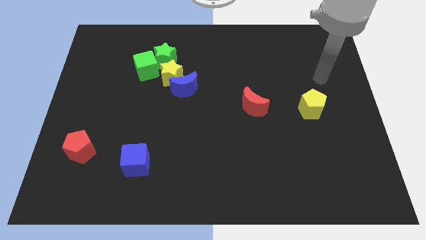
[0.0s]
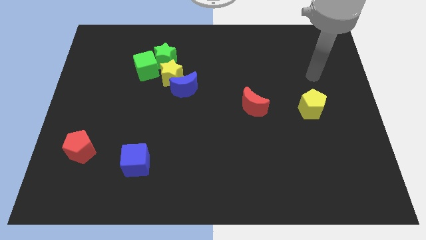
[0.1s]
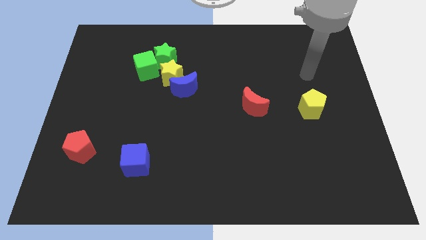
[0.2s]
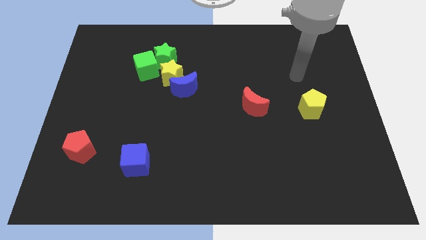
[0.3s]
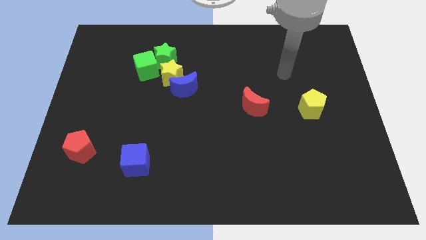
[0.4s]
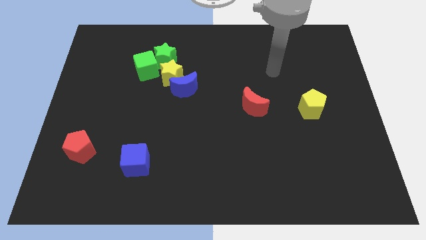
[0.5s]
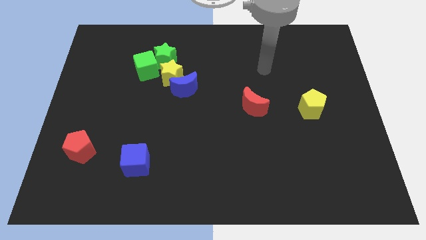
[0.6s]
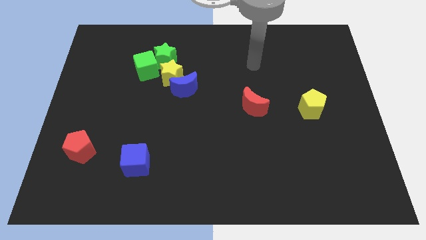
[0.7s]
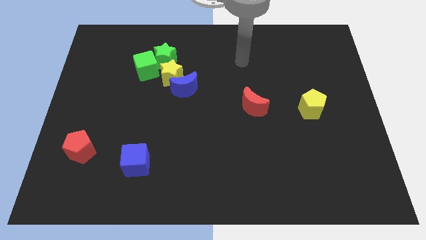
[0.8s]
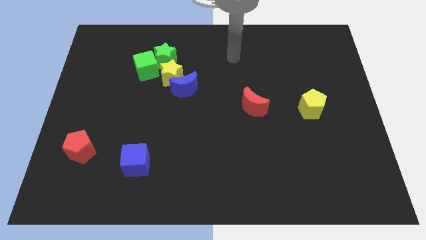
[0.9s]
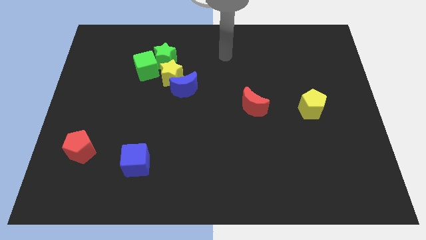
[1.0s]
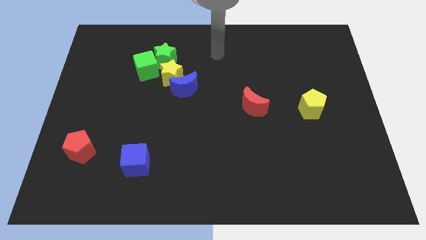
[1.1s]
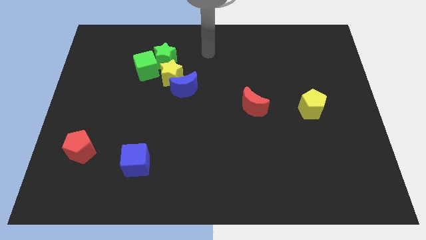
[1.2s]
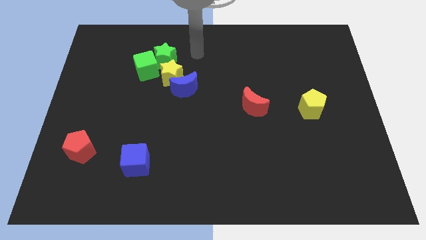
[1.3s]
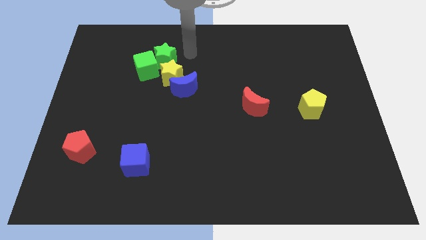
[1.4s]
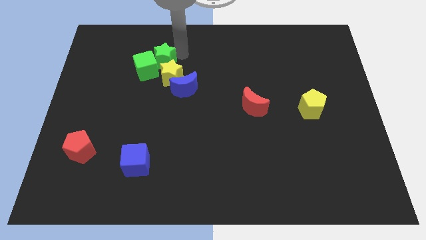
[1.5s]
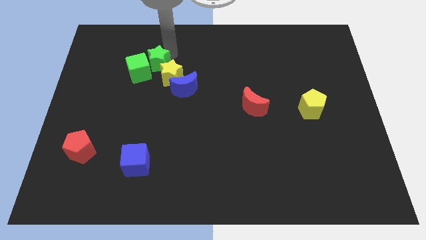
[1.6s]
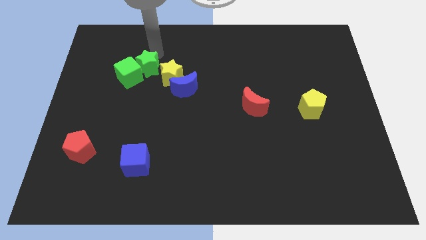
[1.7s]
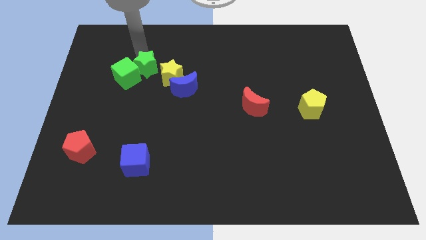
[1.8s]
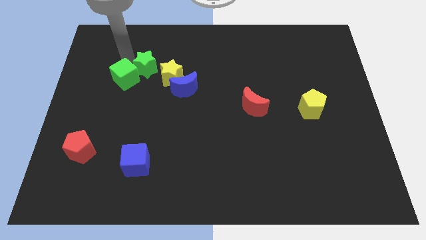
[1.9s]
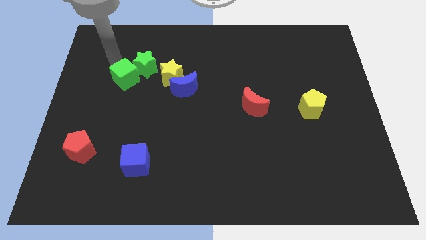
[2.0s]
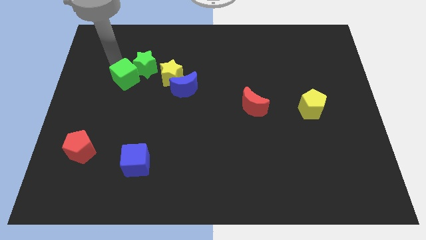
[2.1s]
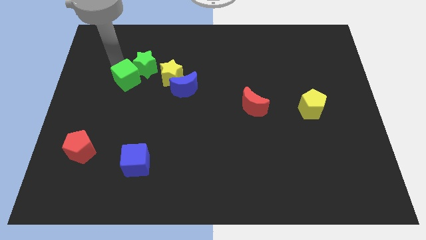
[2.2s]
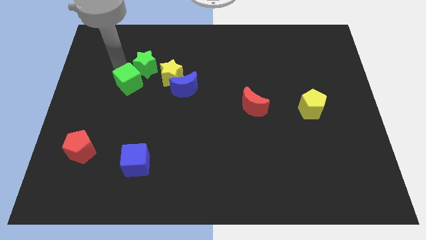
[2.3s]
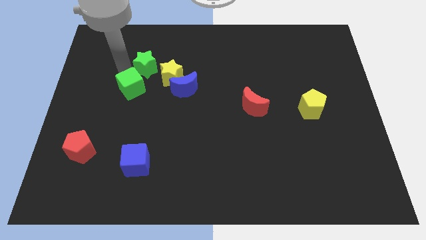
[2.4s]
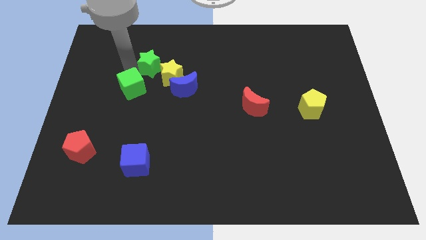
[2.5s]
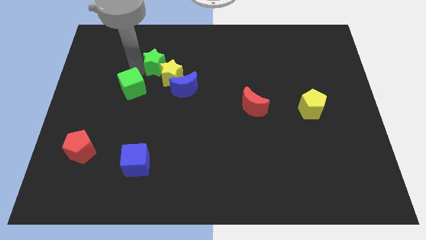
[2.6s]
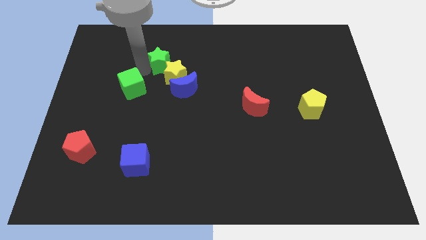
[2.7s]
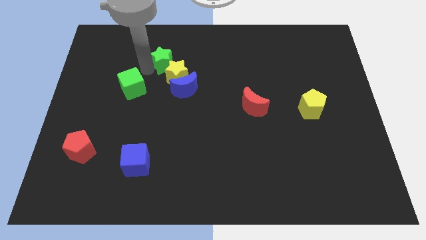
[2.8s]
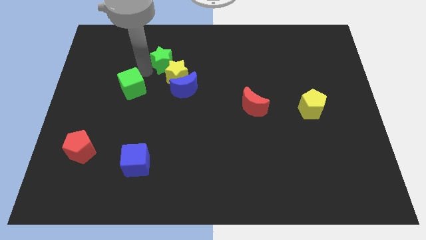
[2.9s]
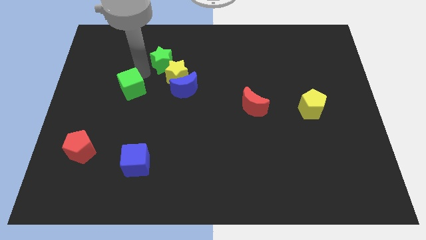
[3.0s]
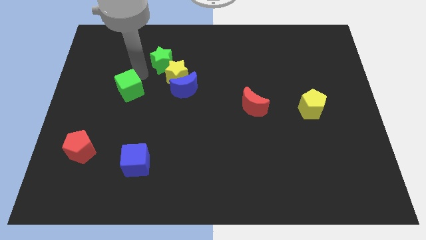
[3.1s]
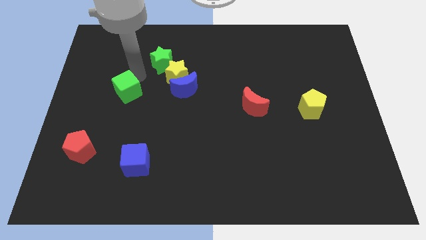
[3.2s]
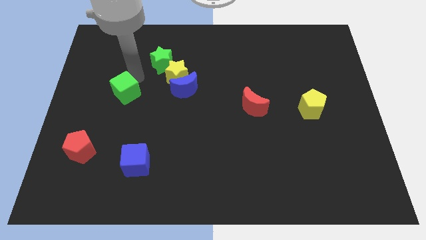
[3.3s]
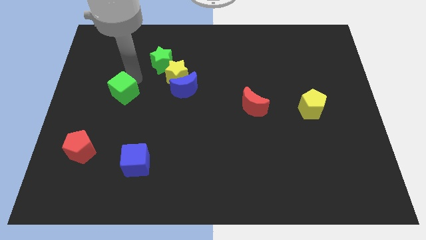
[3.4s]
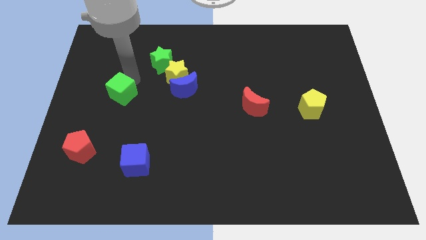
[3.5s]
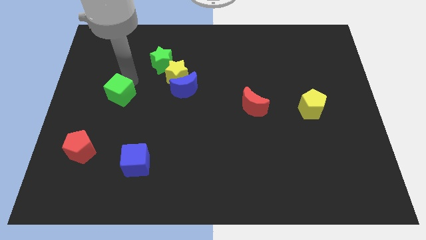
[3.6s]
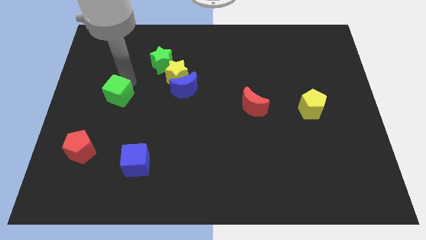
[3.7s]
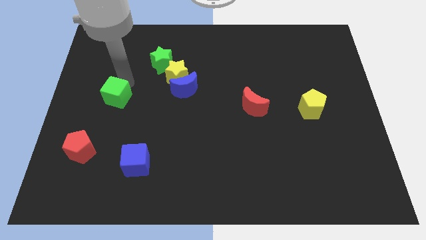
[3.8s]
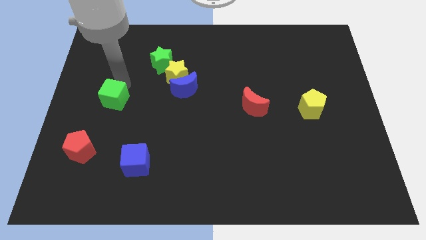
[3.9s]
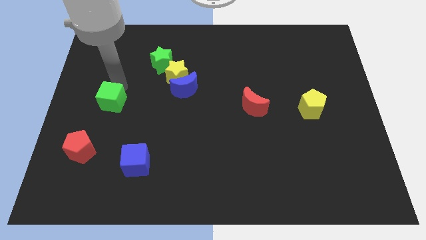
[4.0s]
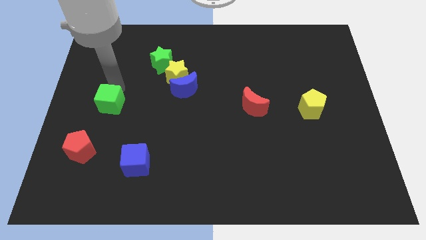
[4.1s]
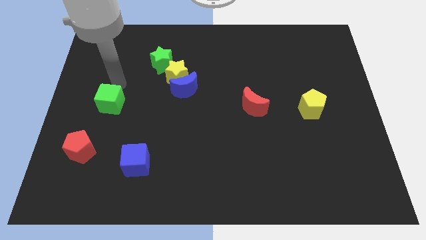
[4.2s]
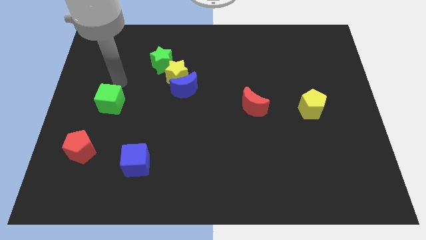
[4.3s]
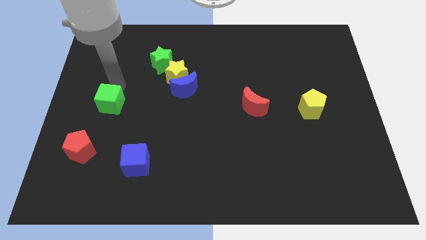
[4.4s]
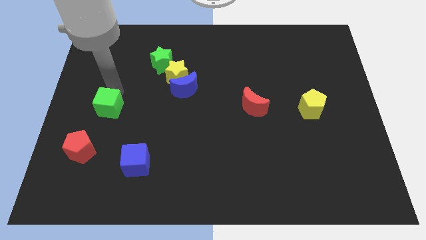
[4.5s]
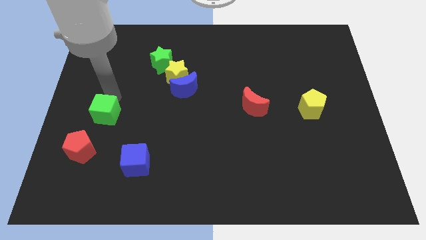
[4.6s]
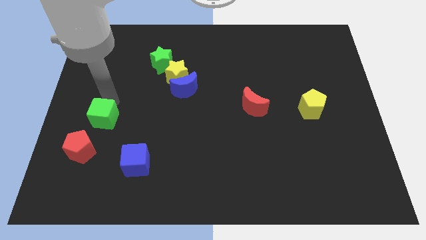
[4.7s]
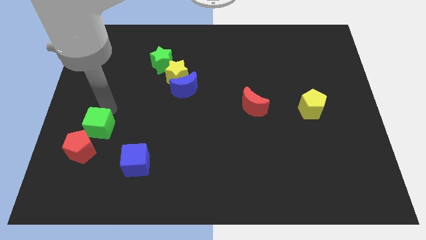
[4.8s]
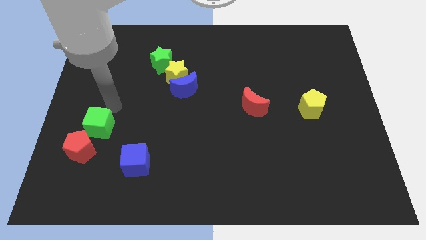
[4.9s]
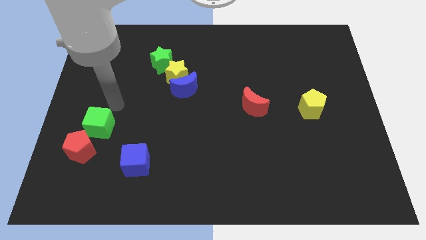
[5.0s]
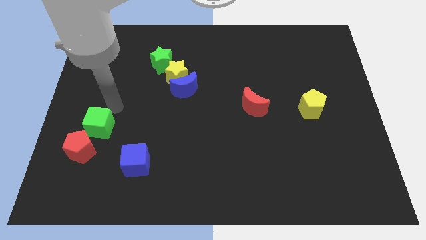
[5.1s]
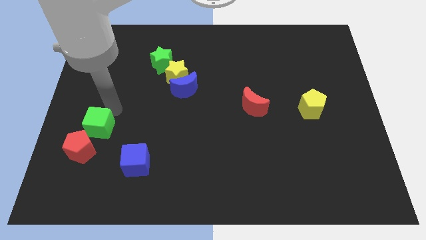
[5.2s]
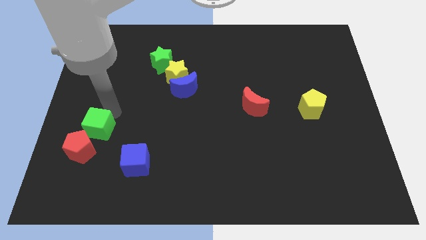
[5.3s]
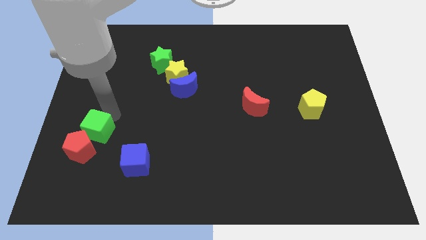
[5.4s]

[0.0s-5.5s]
put the green cube towards the red pentagon

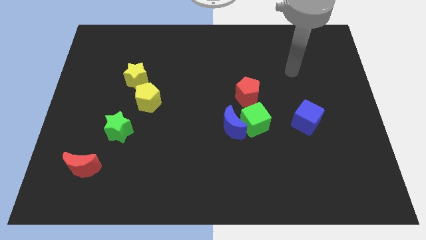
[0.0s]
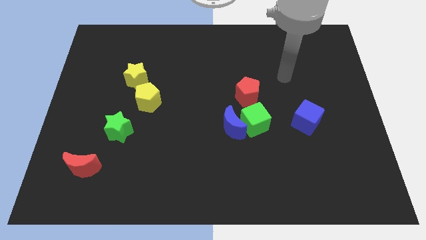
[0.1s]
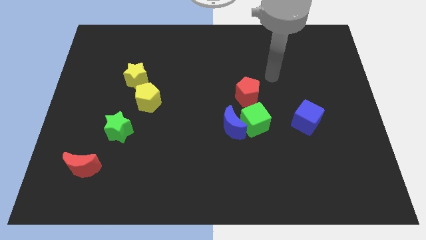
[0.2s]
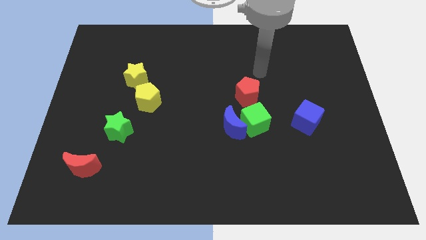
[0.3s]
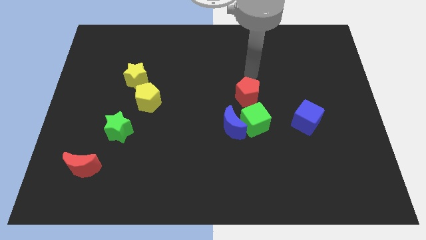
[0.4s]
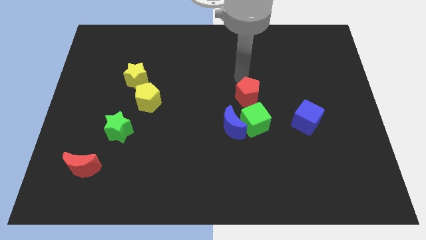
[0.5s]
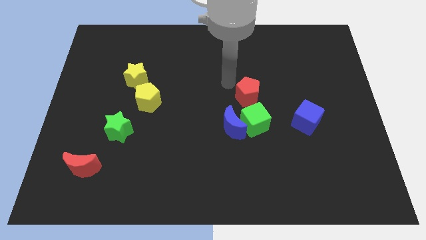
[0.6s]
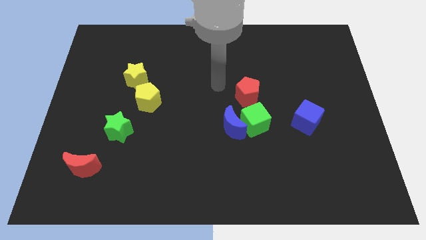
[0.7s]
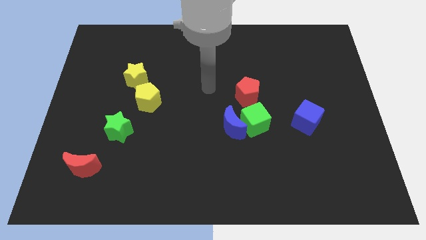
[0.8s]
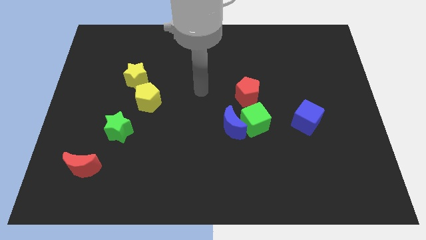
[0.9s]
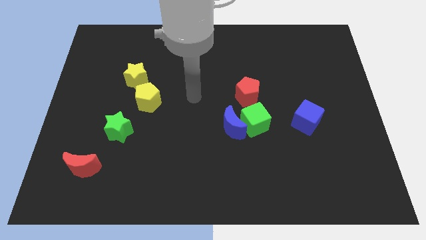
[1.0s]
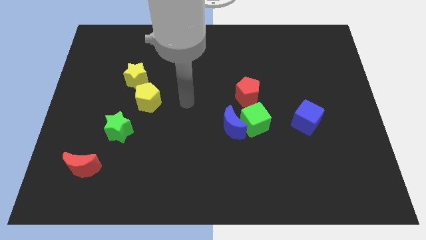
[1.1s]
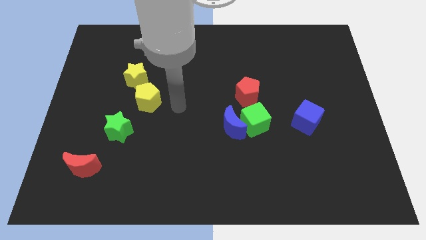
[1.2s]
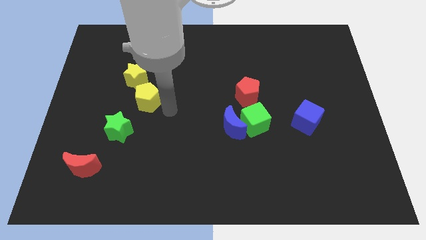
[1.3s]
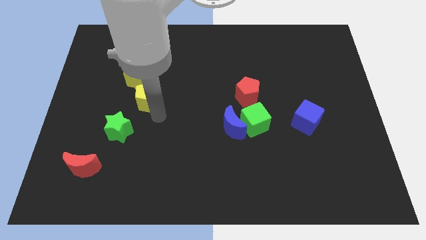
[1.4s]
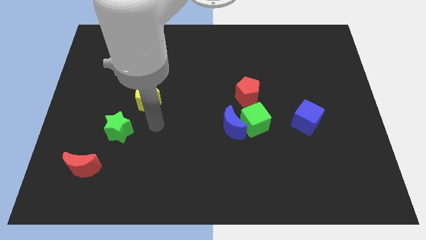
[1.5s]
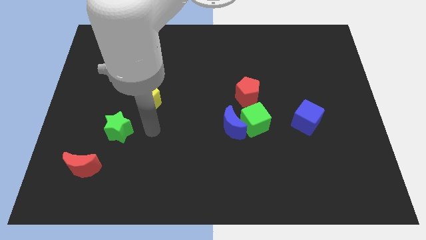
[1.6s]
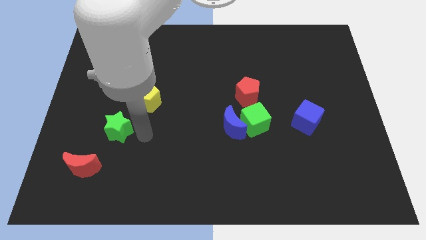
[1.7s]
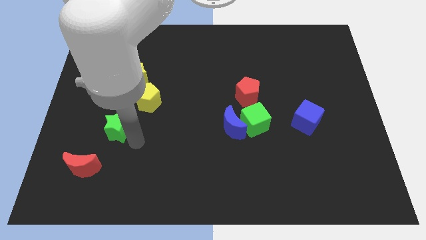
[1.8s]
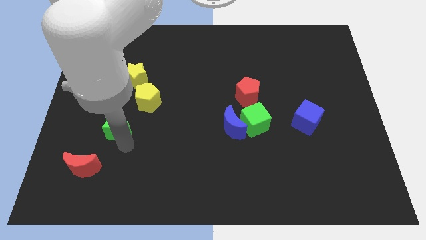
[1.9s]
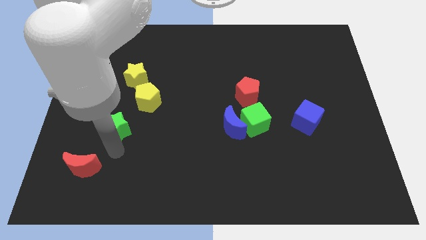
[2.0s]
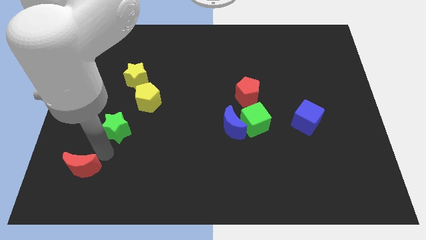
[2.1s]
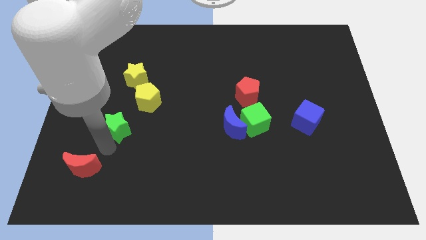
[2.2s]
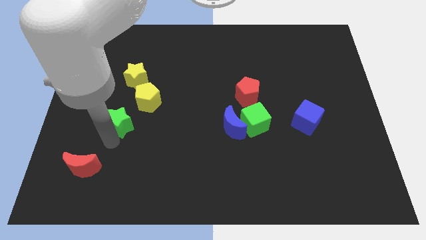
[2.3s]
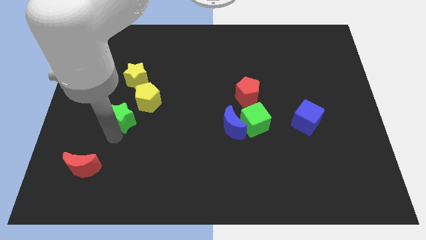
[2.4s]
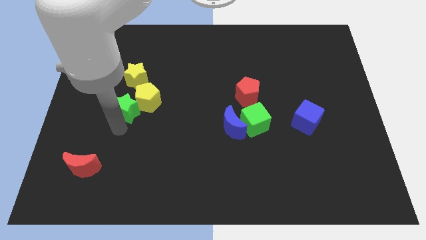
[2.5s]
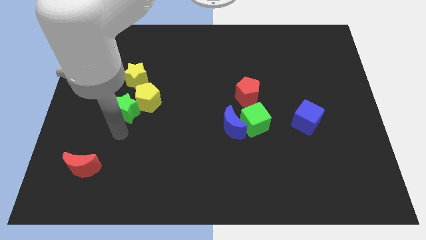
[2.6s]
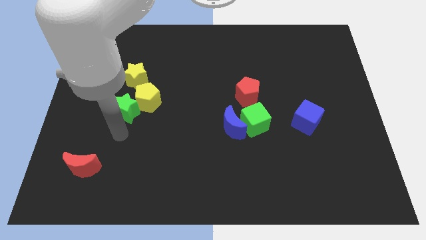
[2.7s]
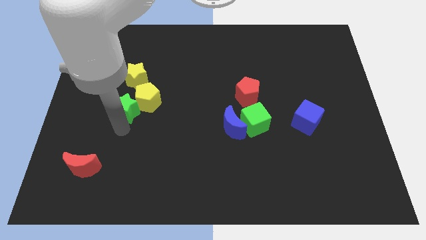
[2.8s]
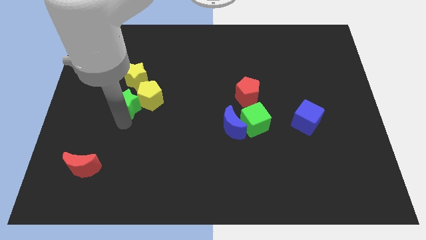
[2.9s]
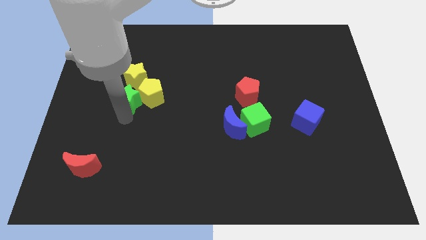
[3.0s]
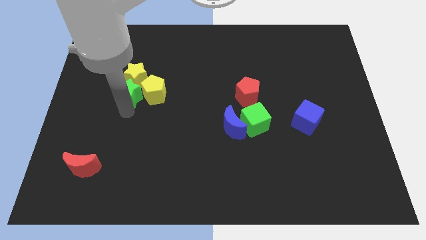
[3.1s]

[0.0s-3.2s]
move the green star next to the yellow star
